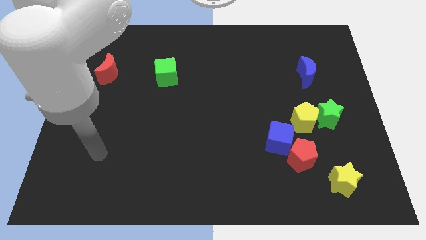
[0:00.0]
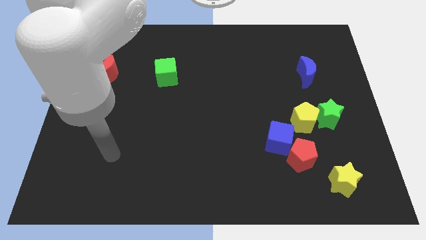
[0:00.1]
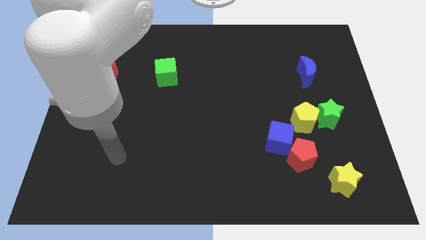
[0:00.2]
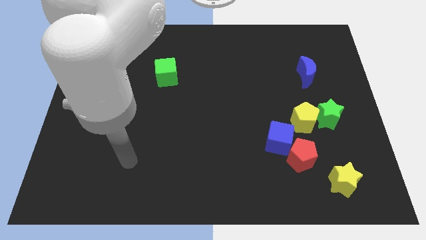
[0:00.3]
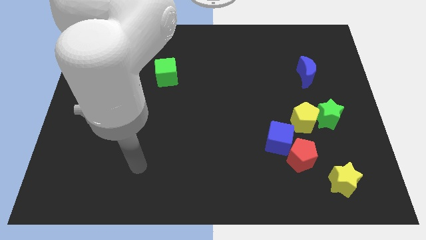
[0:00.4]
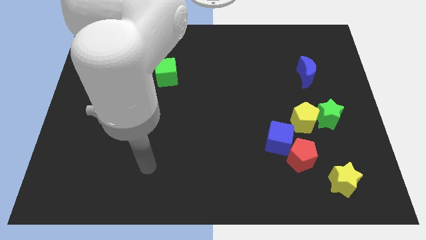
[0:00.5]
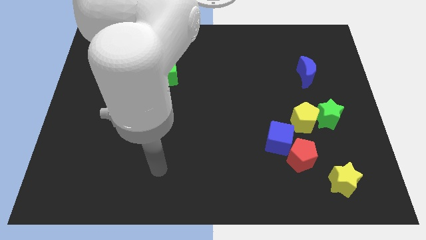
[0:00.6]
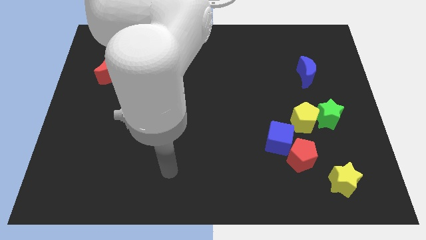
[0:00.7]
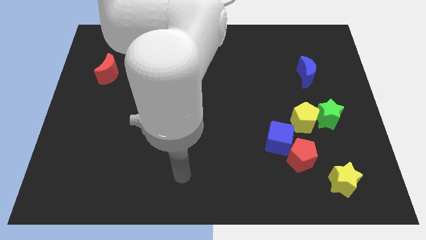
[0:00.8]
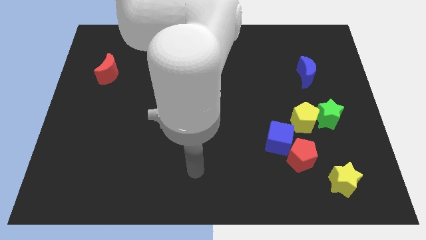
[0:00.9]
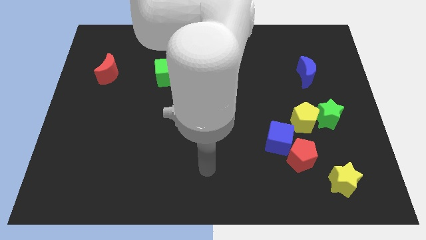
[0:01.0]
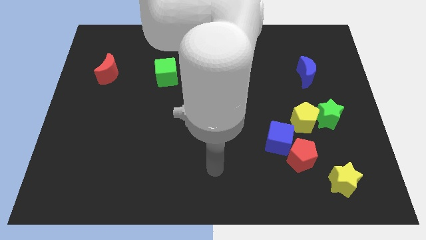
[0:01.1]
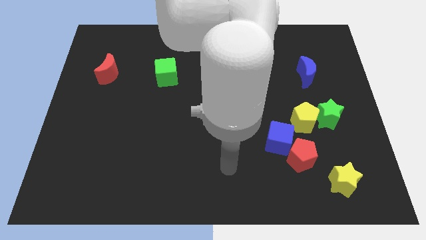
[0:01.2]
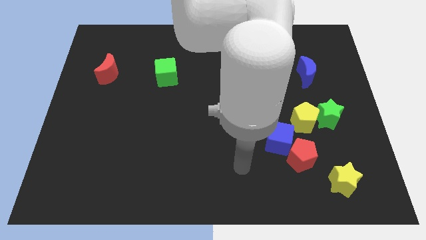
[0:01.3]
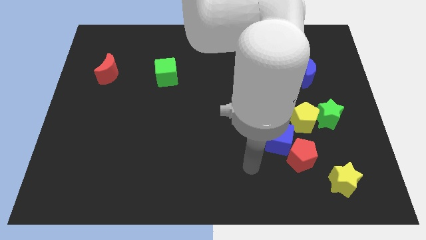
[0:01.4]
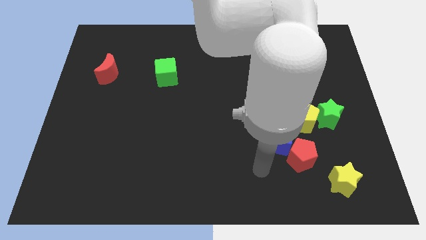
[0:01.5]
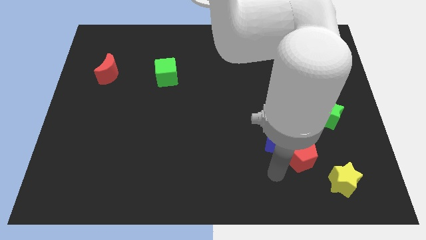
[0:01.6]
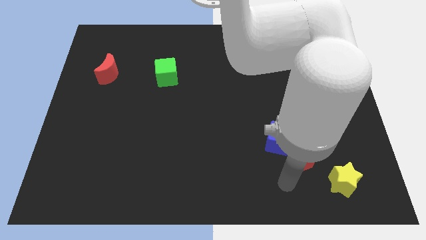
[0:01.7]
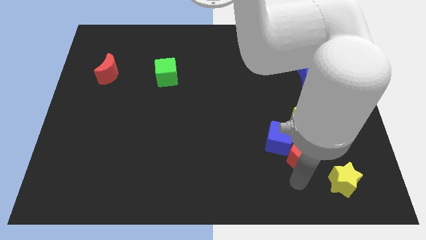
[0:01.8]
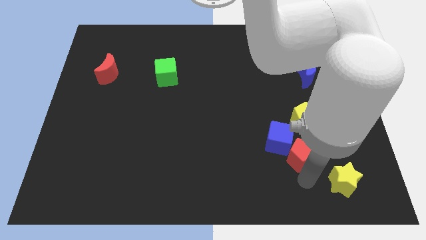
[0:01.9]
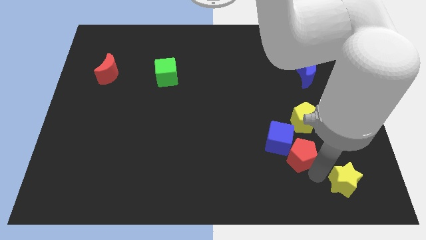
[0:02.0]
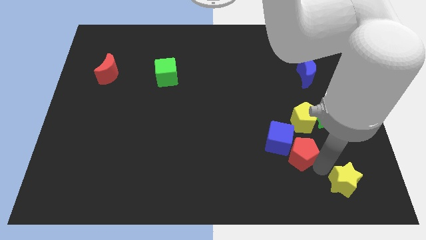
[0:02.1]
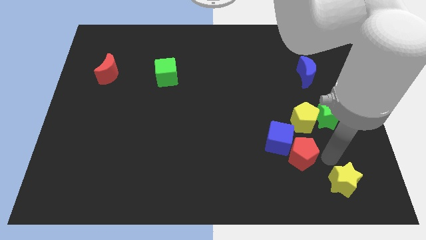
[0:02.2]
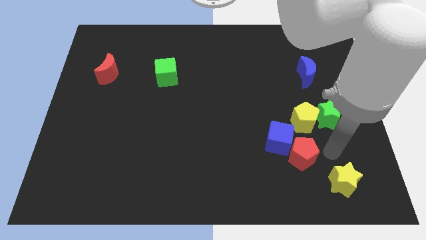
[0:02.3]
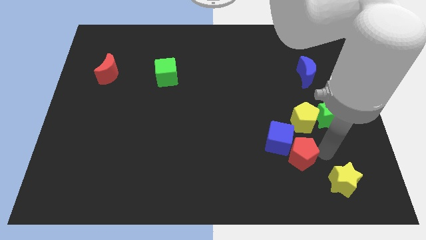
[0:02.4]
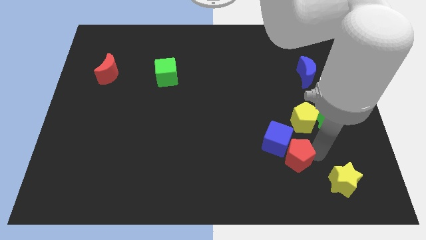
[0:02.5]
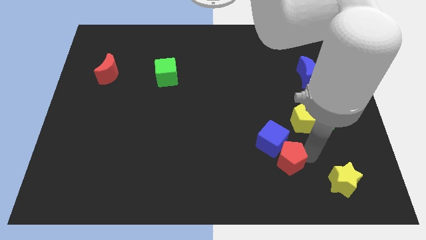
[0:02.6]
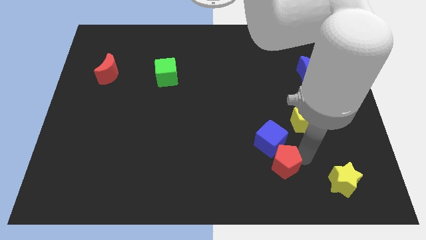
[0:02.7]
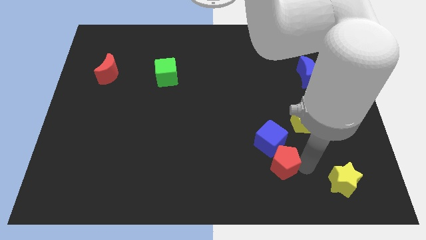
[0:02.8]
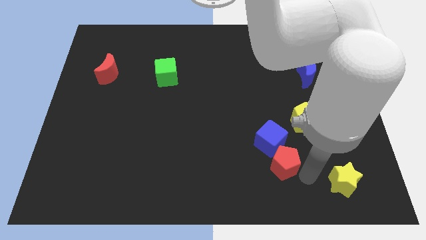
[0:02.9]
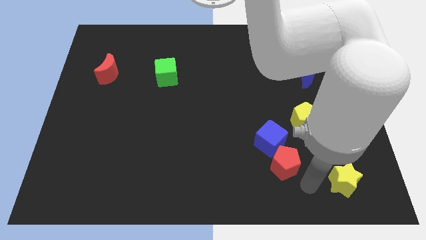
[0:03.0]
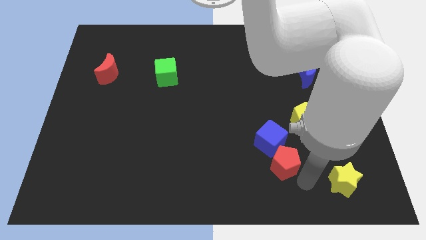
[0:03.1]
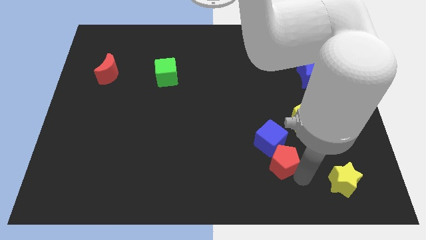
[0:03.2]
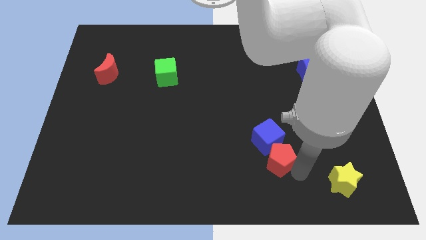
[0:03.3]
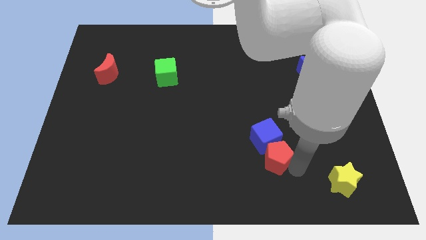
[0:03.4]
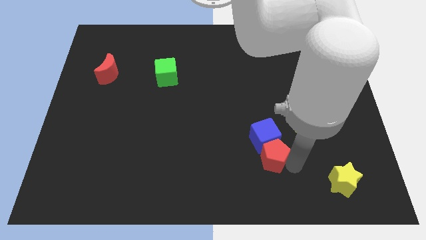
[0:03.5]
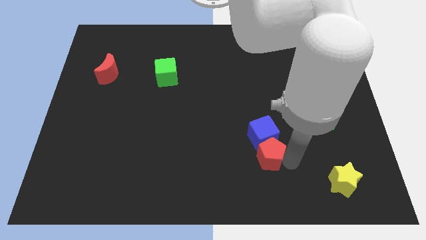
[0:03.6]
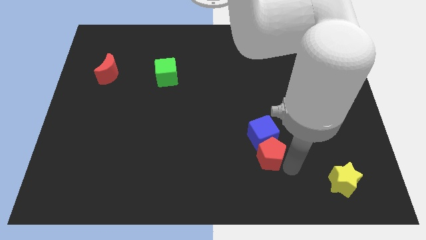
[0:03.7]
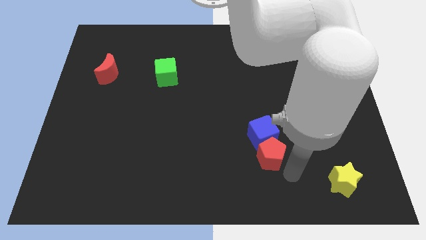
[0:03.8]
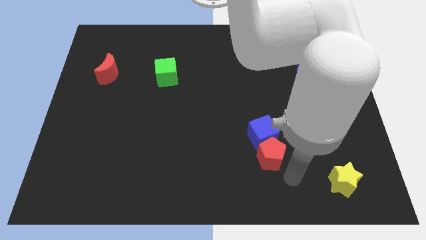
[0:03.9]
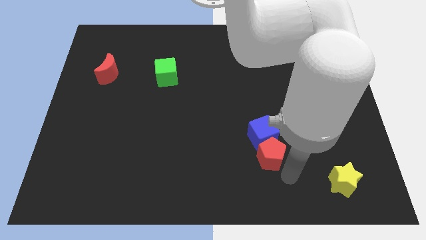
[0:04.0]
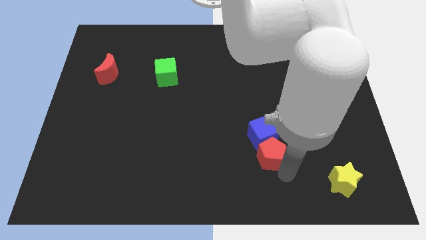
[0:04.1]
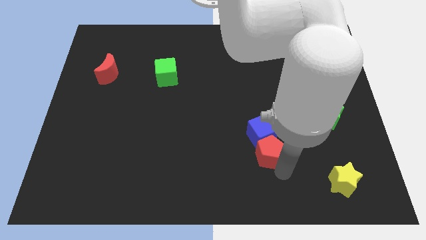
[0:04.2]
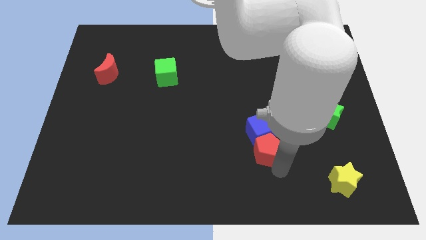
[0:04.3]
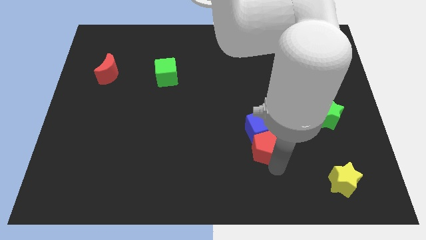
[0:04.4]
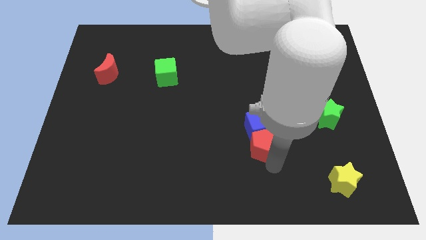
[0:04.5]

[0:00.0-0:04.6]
slide the red pentagon upwards and to the left diagonally a little

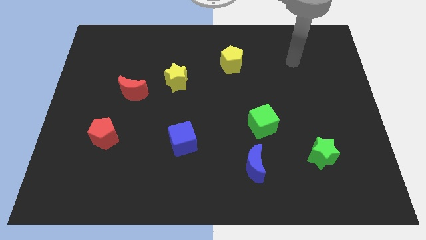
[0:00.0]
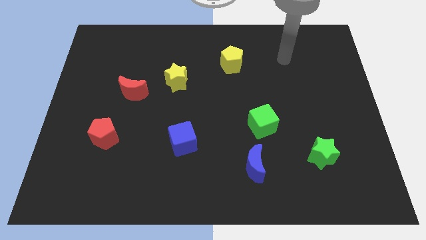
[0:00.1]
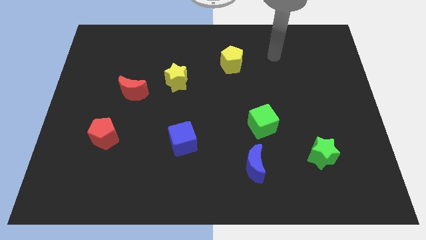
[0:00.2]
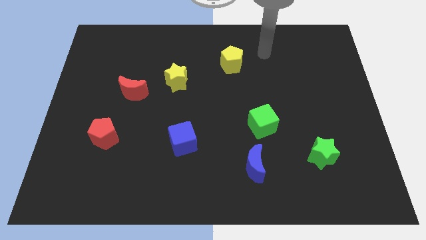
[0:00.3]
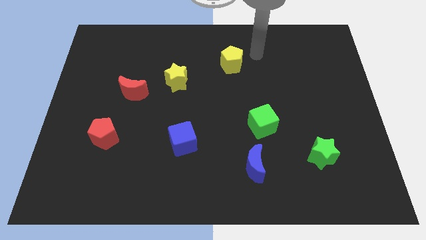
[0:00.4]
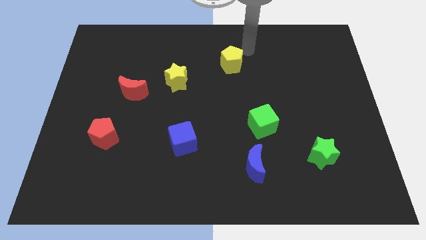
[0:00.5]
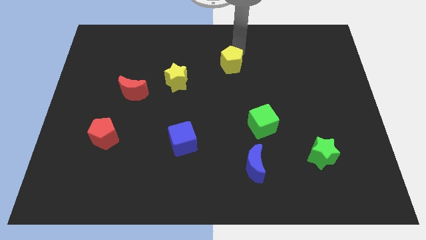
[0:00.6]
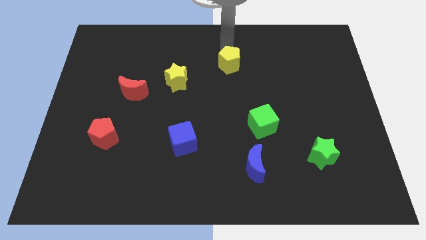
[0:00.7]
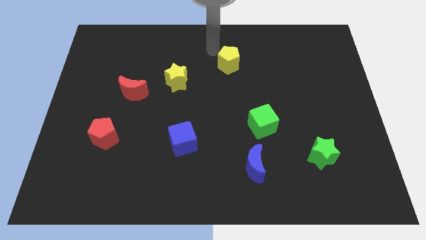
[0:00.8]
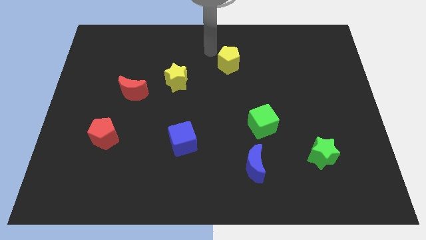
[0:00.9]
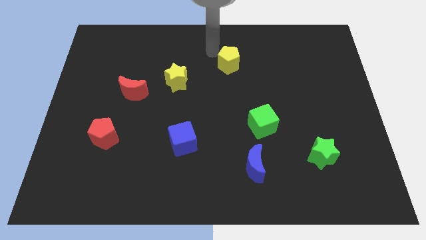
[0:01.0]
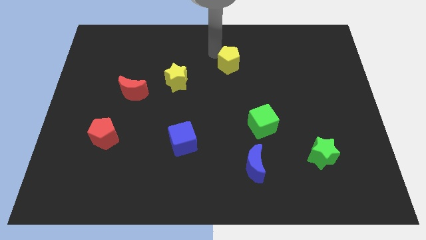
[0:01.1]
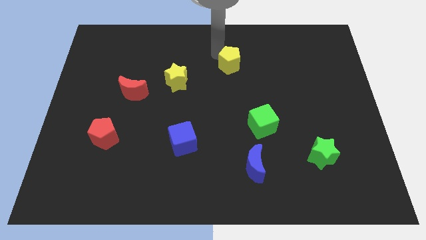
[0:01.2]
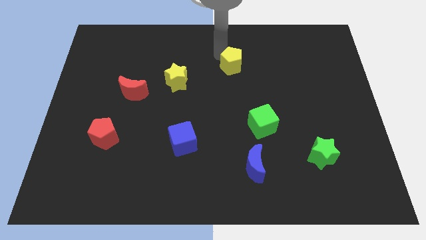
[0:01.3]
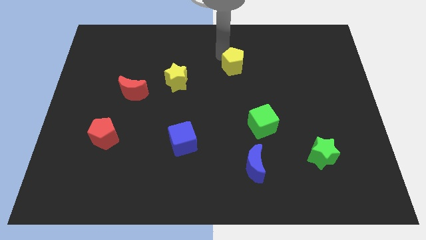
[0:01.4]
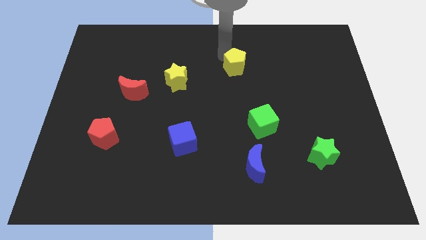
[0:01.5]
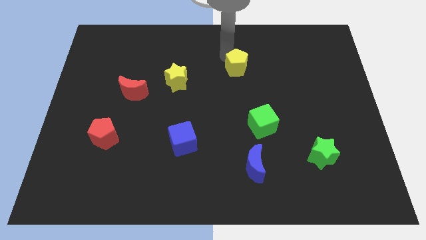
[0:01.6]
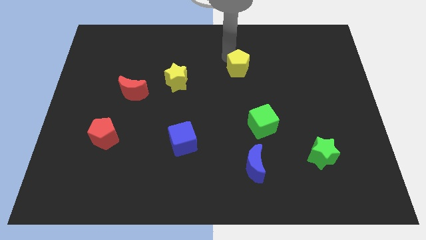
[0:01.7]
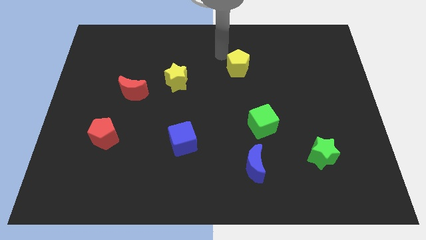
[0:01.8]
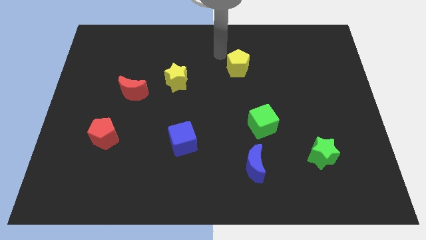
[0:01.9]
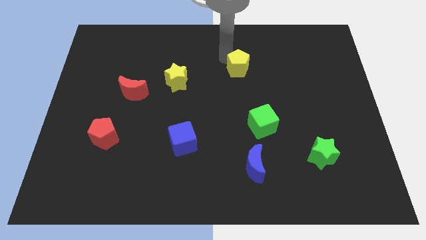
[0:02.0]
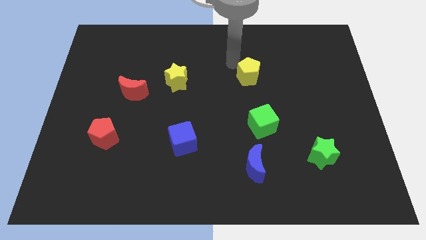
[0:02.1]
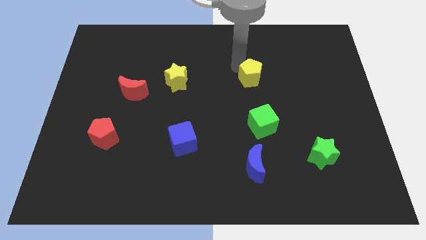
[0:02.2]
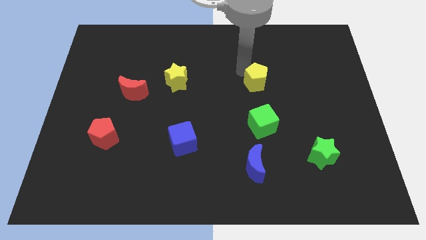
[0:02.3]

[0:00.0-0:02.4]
move the yellow pentagon a bit down and then right

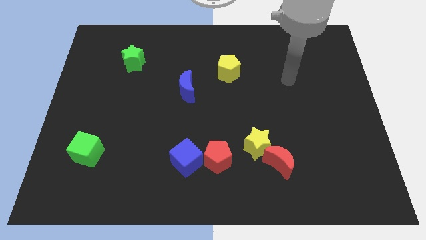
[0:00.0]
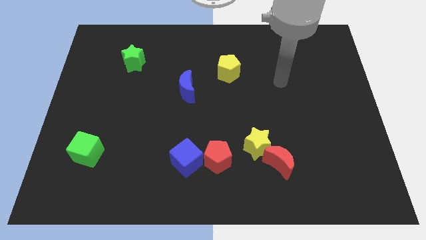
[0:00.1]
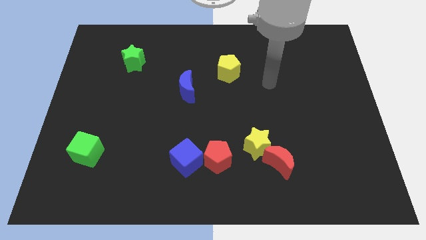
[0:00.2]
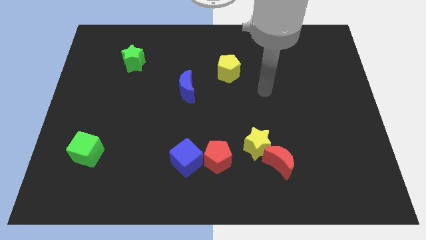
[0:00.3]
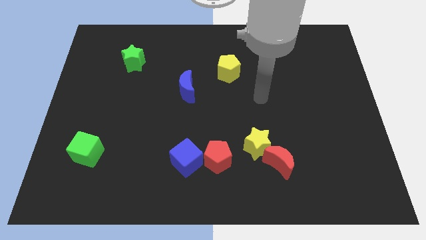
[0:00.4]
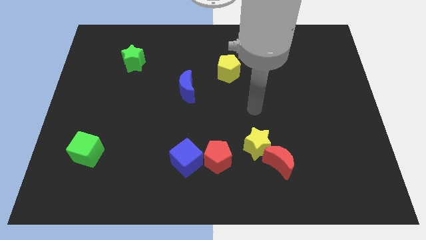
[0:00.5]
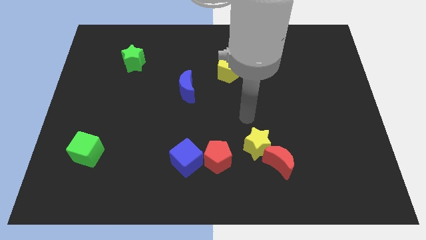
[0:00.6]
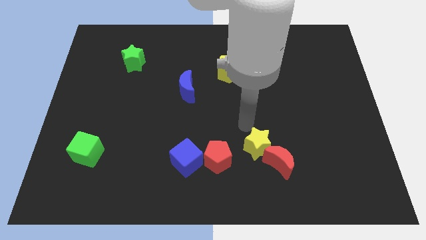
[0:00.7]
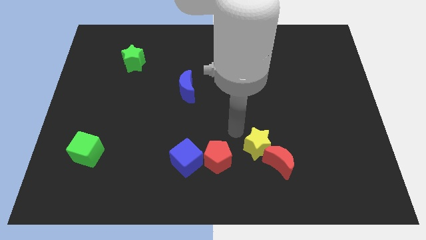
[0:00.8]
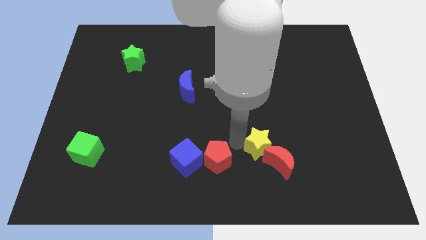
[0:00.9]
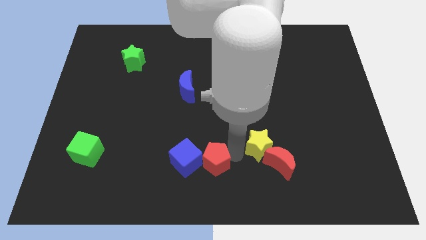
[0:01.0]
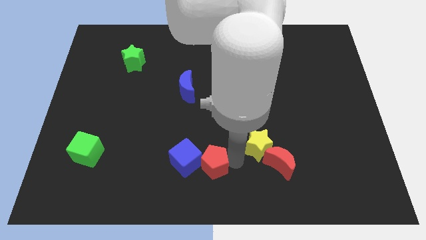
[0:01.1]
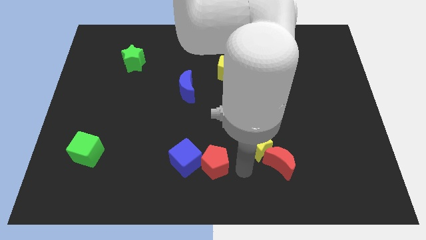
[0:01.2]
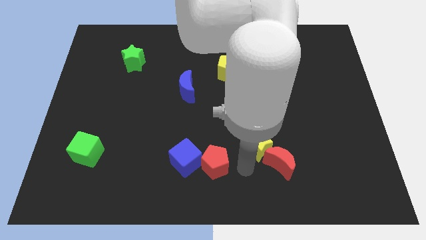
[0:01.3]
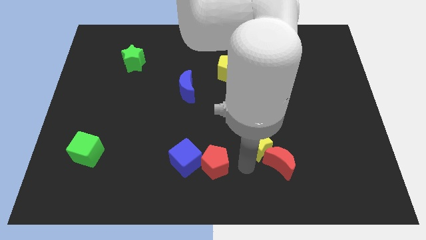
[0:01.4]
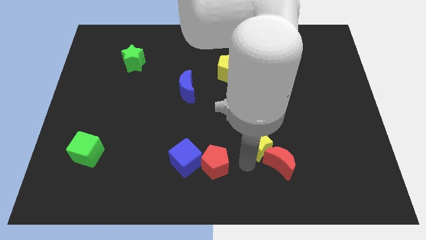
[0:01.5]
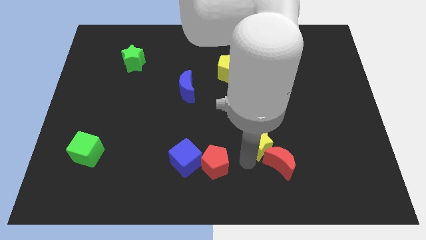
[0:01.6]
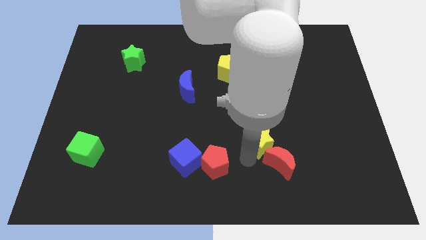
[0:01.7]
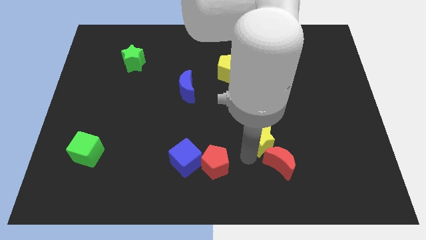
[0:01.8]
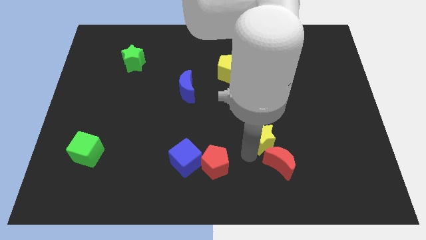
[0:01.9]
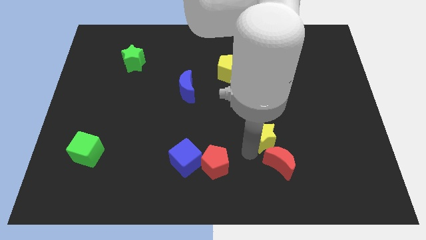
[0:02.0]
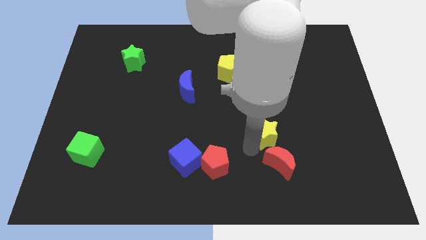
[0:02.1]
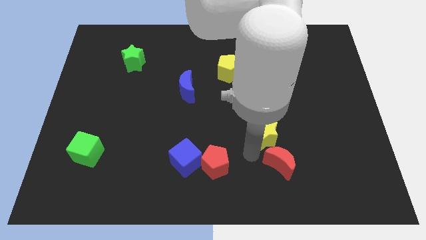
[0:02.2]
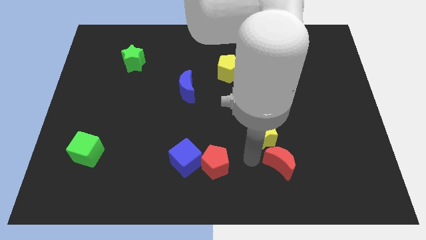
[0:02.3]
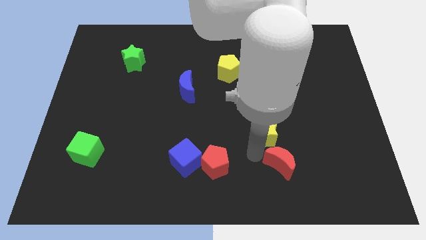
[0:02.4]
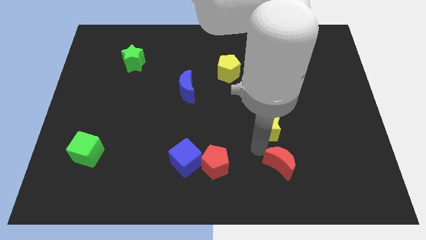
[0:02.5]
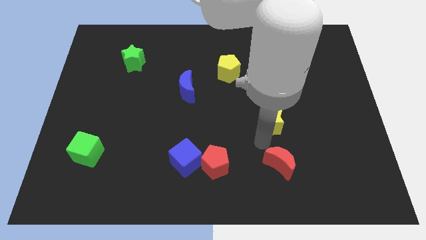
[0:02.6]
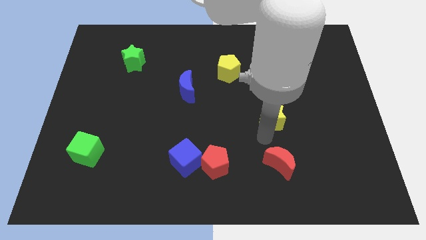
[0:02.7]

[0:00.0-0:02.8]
slightly push the yellow star up and to the right diagonally
